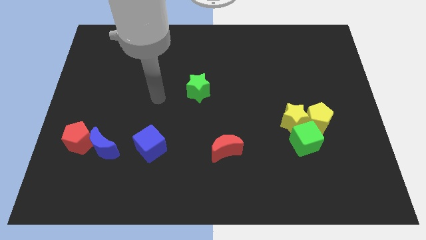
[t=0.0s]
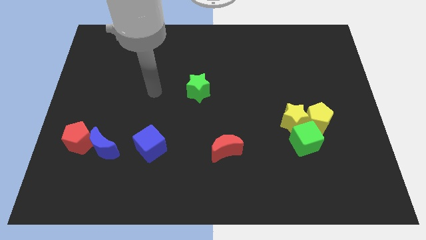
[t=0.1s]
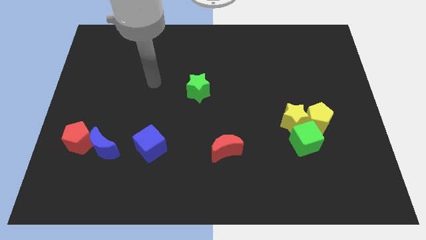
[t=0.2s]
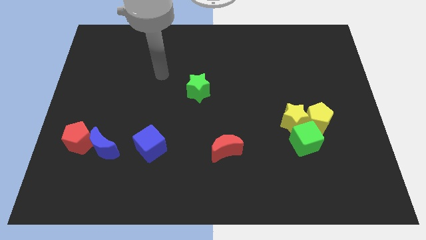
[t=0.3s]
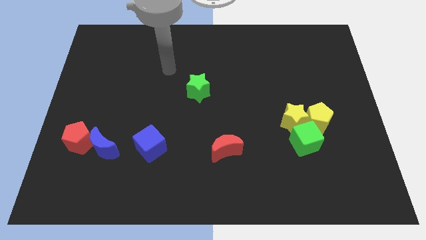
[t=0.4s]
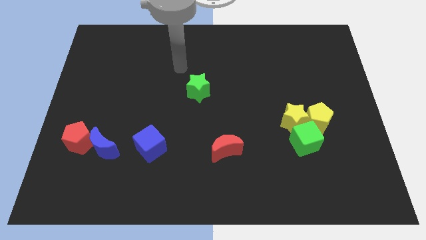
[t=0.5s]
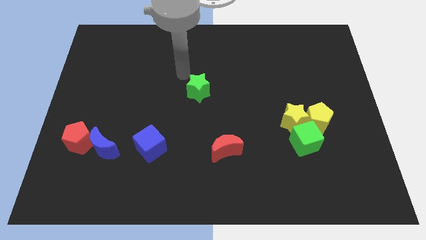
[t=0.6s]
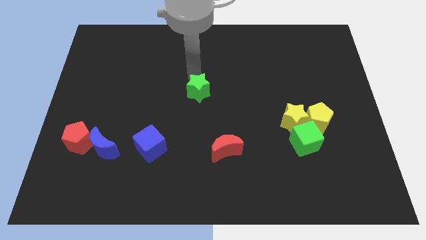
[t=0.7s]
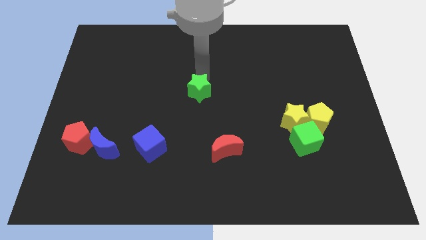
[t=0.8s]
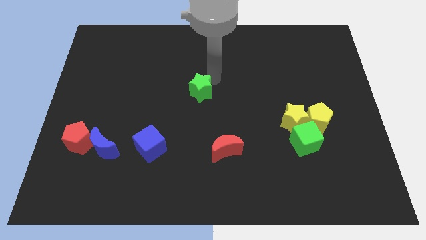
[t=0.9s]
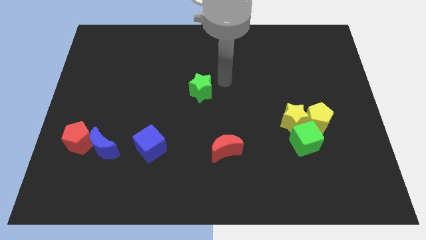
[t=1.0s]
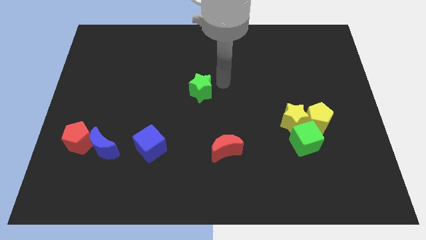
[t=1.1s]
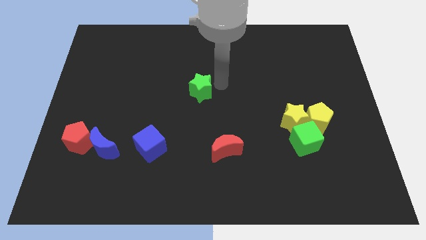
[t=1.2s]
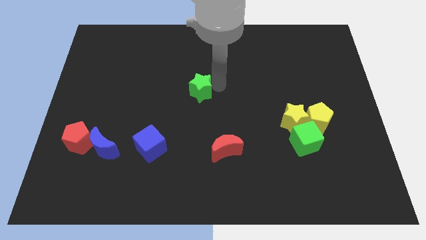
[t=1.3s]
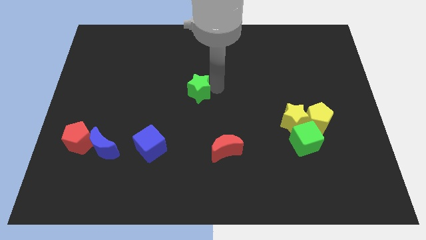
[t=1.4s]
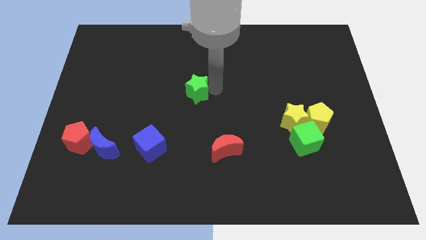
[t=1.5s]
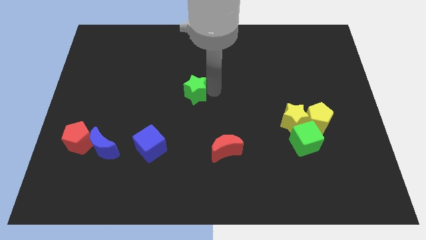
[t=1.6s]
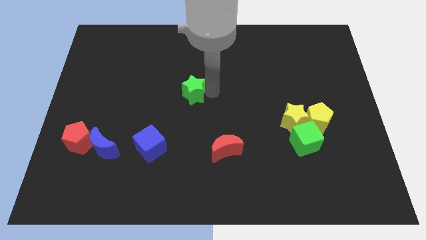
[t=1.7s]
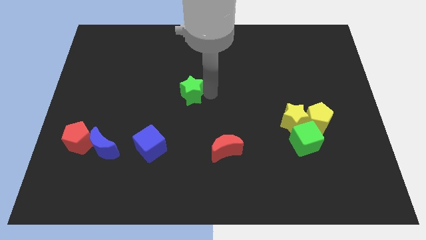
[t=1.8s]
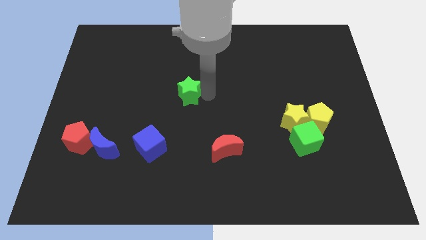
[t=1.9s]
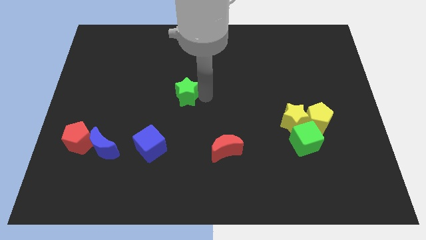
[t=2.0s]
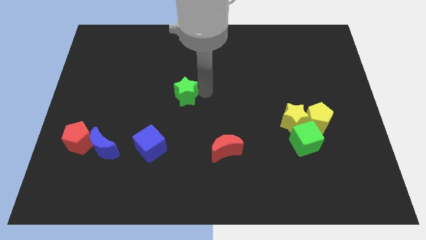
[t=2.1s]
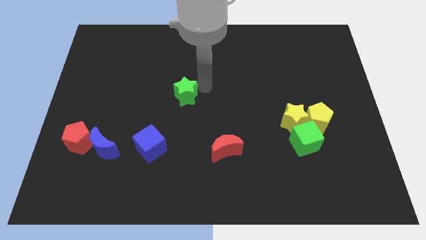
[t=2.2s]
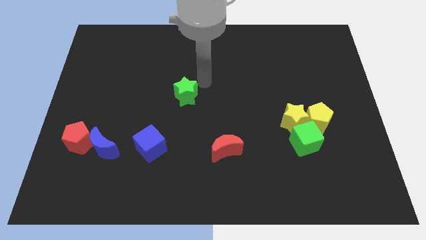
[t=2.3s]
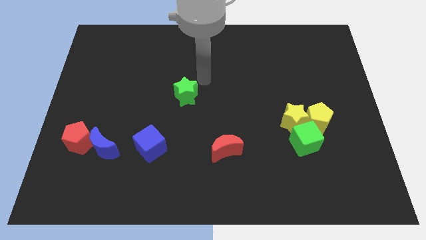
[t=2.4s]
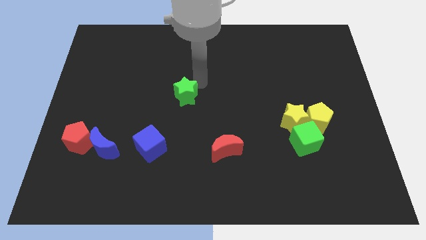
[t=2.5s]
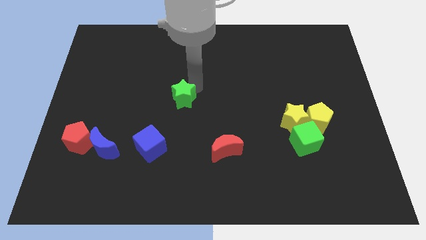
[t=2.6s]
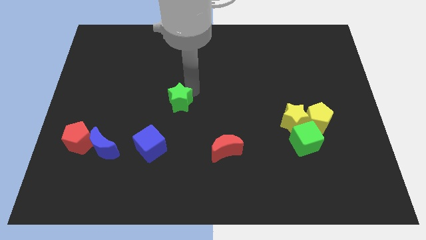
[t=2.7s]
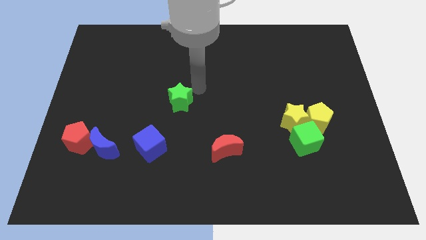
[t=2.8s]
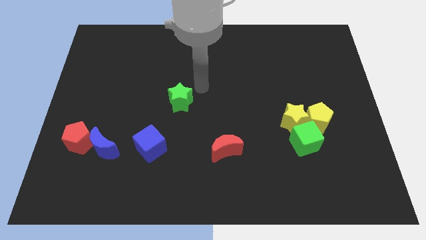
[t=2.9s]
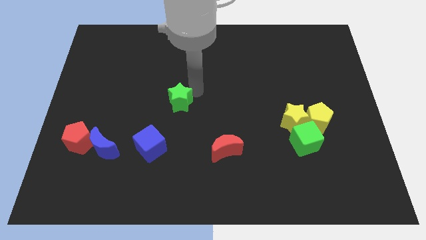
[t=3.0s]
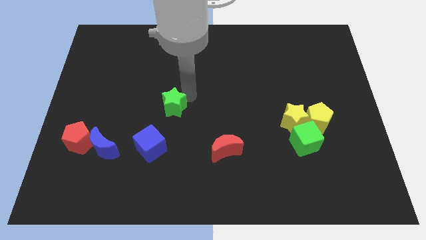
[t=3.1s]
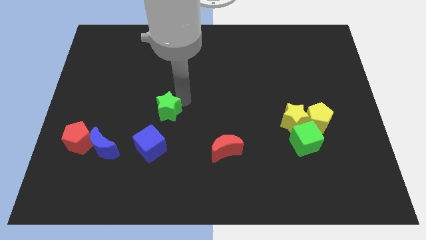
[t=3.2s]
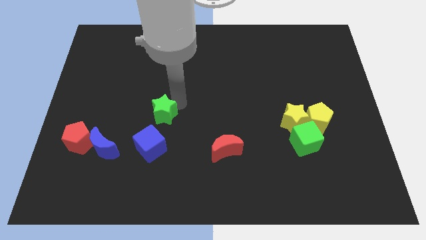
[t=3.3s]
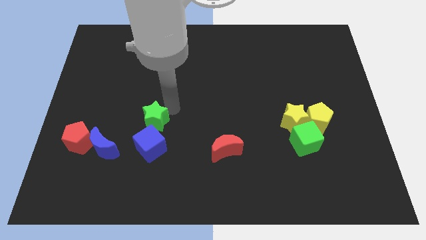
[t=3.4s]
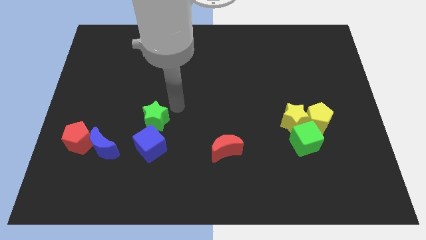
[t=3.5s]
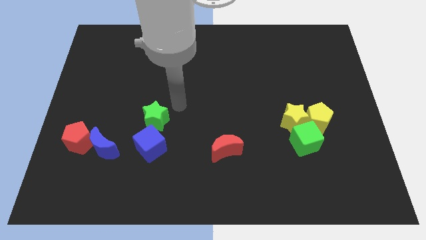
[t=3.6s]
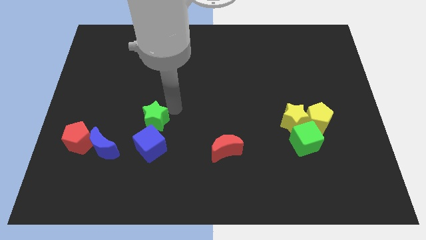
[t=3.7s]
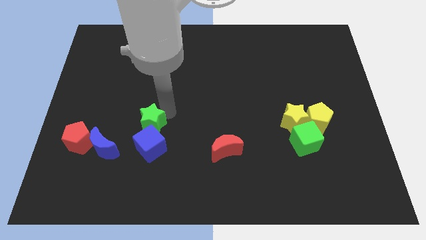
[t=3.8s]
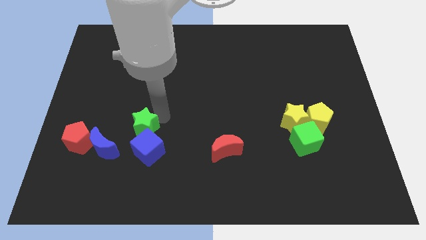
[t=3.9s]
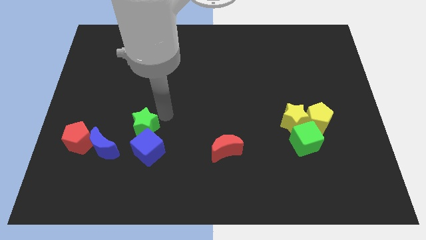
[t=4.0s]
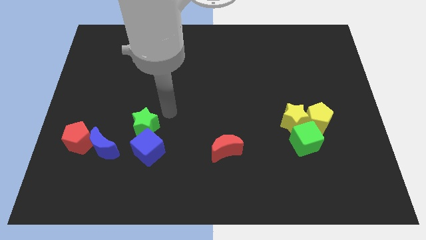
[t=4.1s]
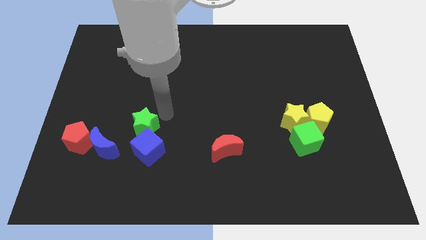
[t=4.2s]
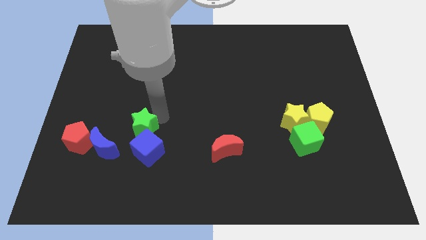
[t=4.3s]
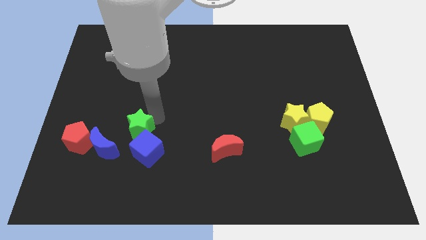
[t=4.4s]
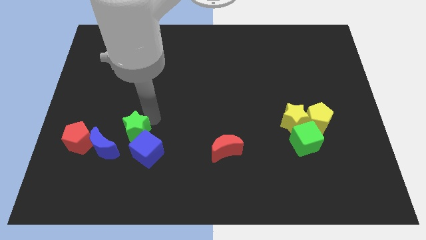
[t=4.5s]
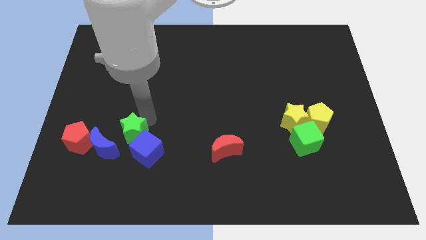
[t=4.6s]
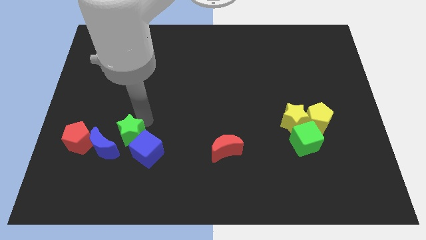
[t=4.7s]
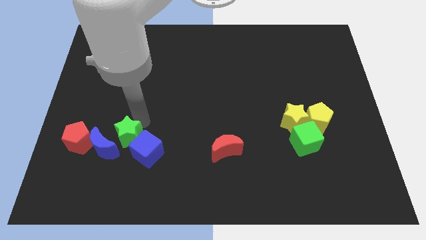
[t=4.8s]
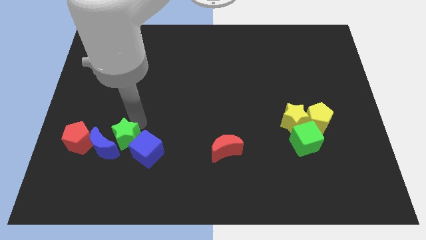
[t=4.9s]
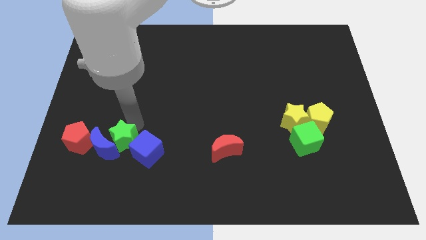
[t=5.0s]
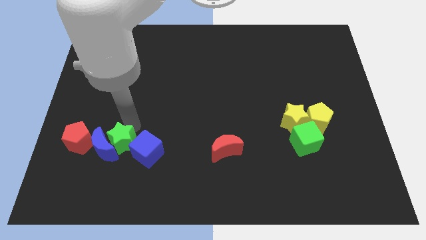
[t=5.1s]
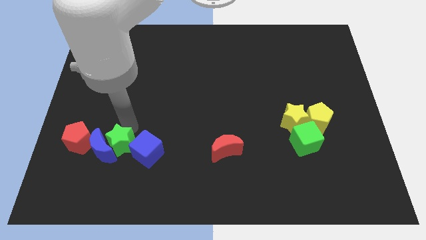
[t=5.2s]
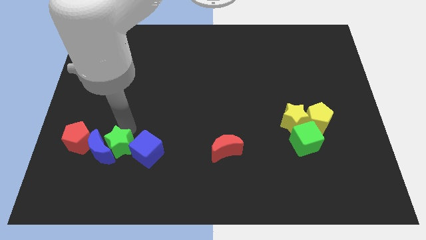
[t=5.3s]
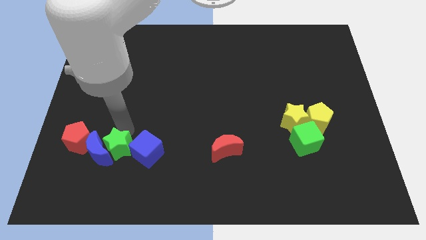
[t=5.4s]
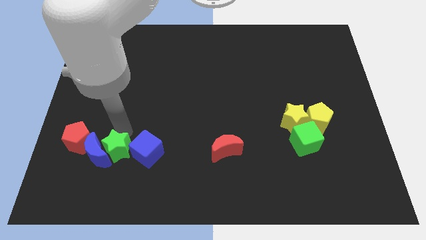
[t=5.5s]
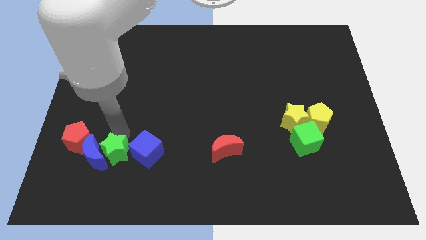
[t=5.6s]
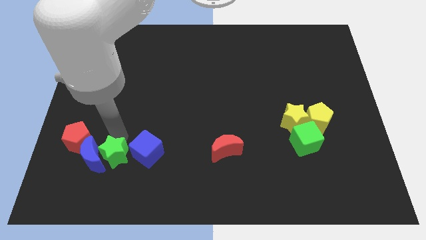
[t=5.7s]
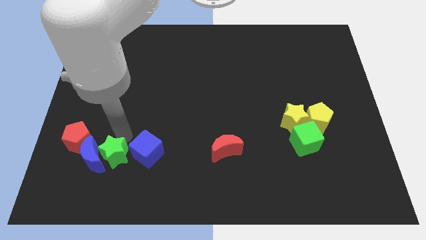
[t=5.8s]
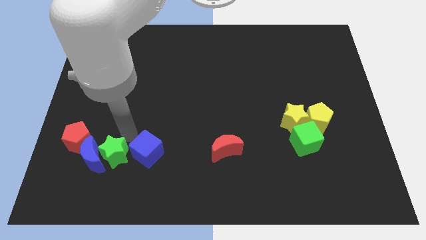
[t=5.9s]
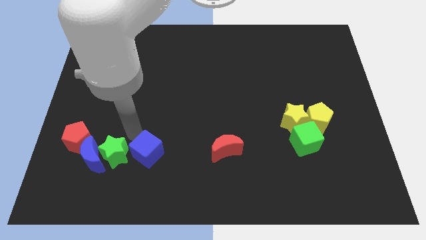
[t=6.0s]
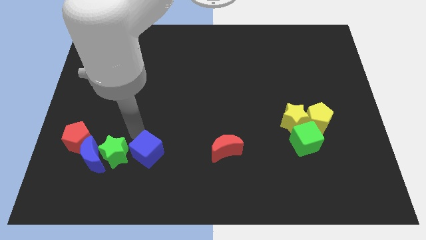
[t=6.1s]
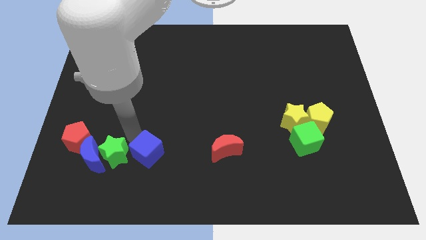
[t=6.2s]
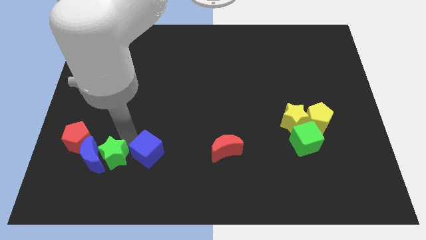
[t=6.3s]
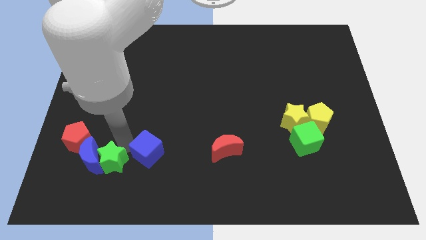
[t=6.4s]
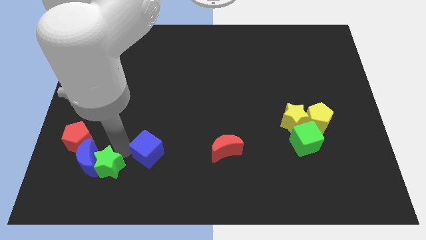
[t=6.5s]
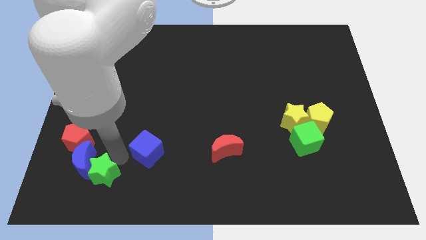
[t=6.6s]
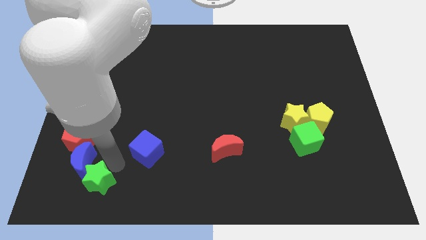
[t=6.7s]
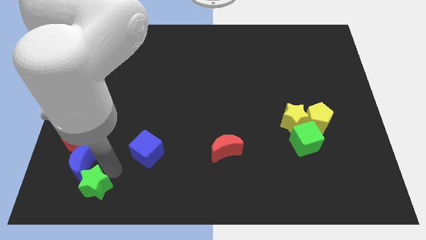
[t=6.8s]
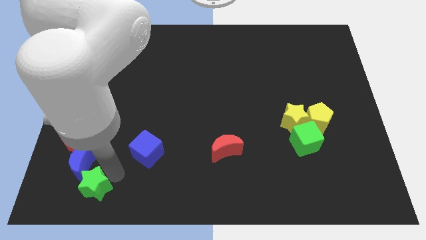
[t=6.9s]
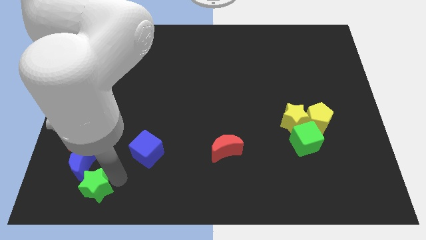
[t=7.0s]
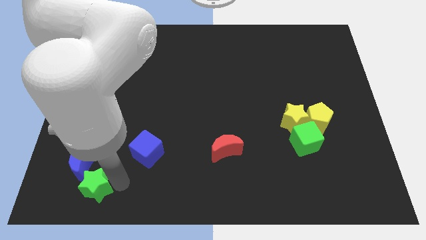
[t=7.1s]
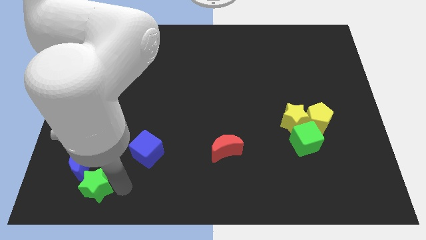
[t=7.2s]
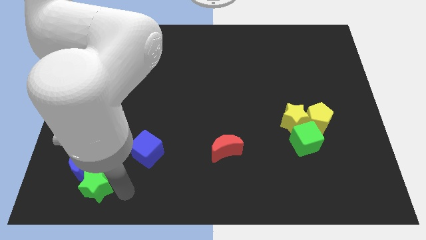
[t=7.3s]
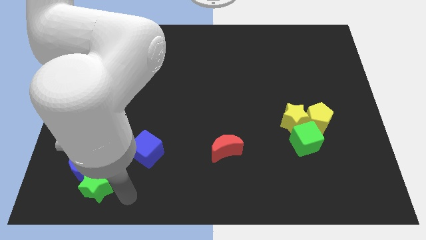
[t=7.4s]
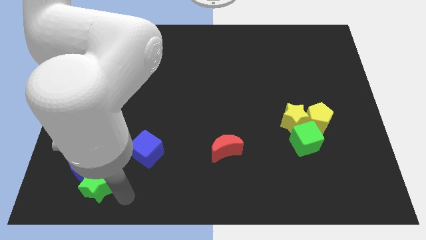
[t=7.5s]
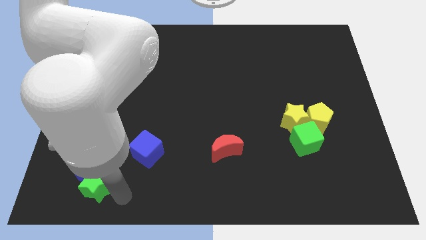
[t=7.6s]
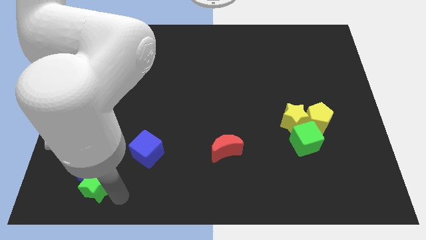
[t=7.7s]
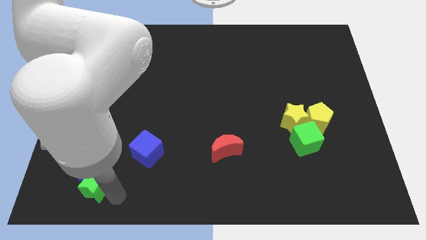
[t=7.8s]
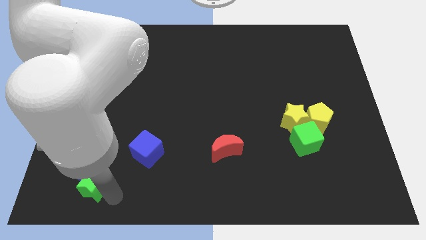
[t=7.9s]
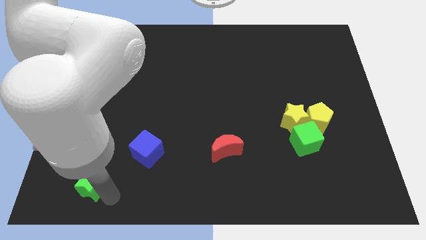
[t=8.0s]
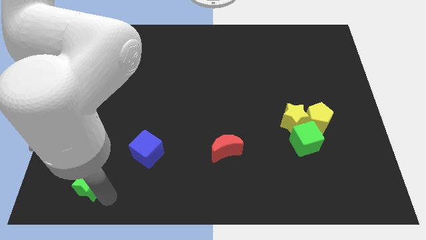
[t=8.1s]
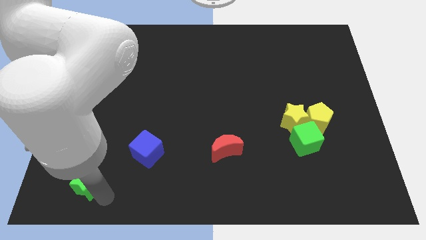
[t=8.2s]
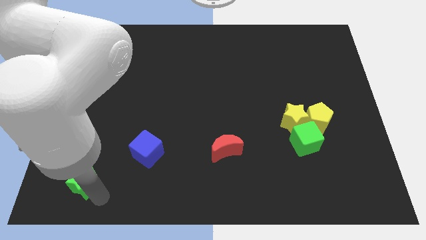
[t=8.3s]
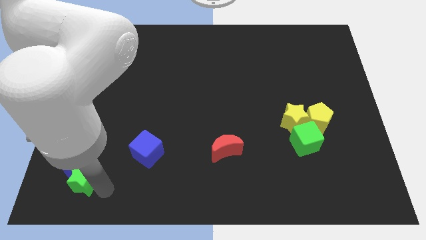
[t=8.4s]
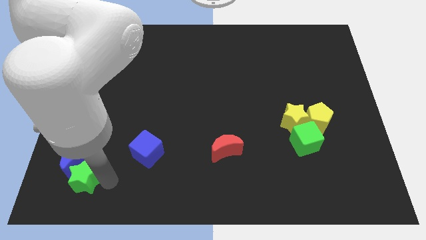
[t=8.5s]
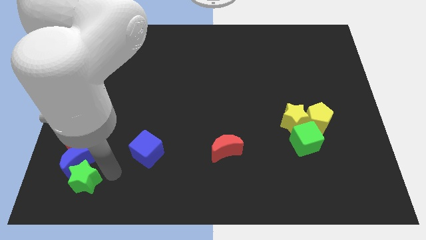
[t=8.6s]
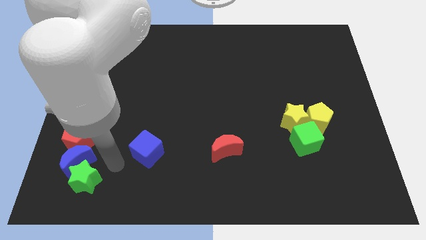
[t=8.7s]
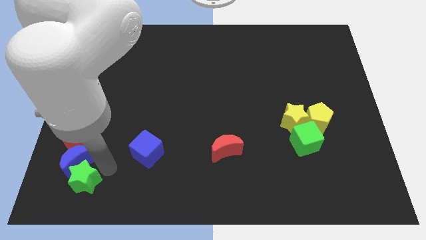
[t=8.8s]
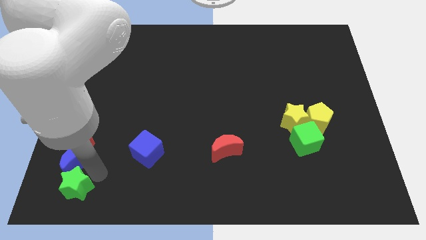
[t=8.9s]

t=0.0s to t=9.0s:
push the green star to the bottom left of the board
